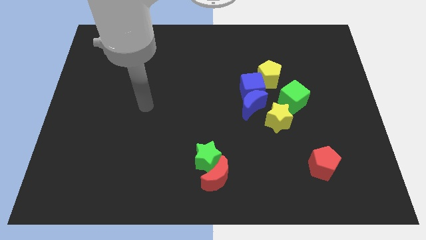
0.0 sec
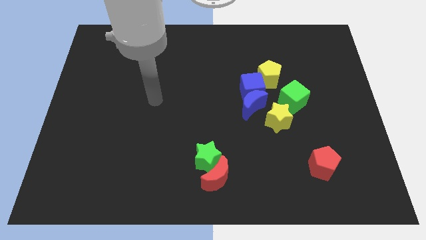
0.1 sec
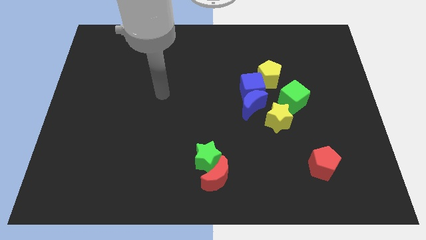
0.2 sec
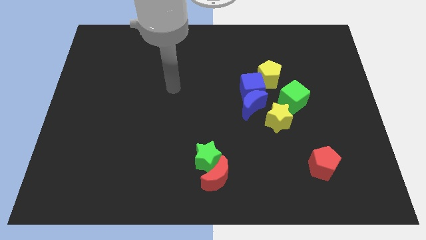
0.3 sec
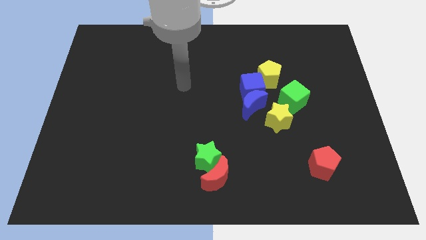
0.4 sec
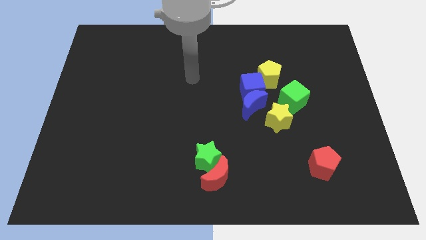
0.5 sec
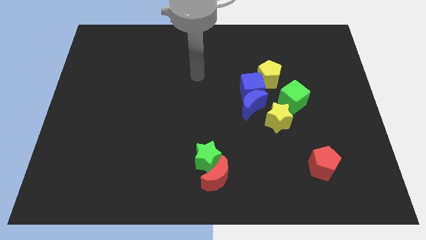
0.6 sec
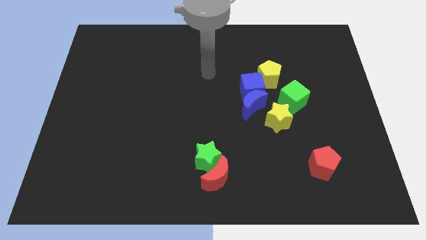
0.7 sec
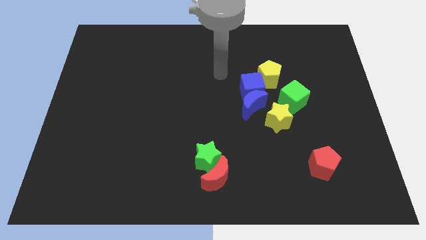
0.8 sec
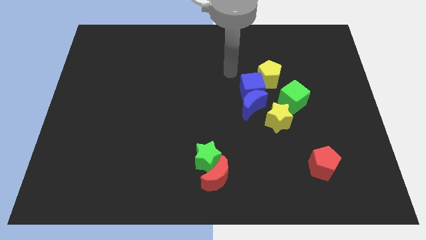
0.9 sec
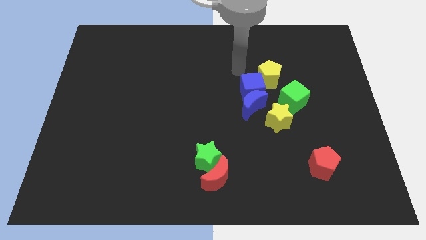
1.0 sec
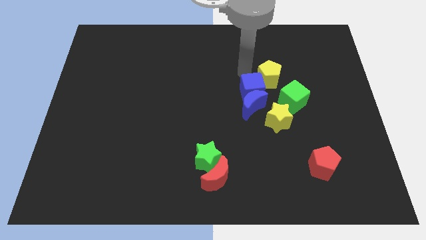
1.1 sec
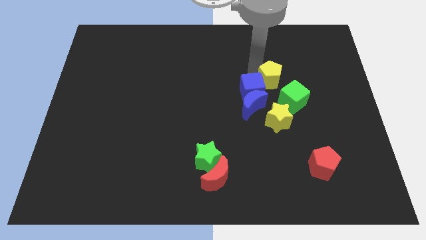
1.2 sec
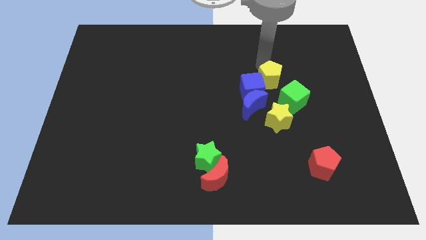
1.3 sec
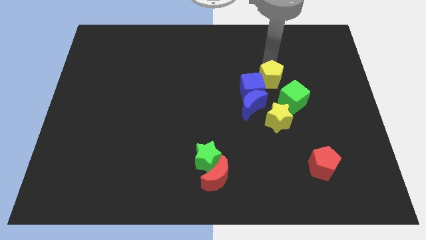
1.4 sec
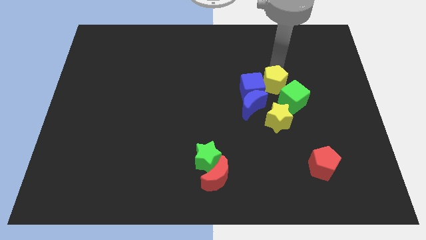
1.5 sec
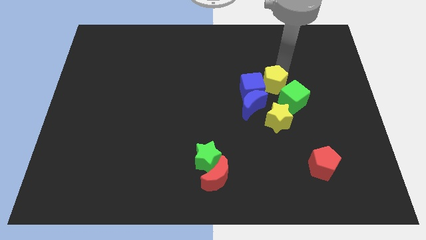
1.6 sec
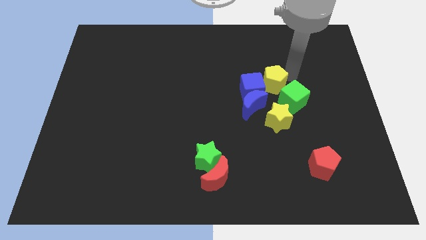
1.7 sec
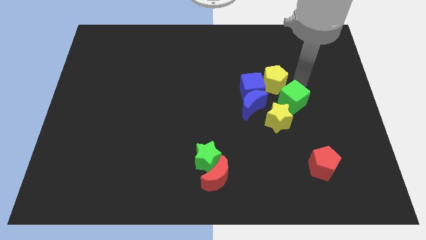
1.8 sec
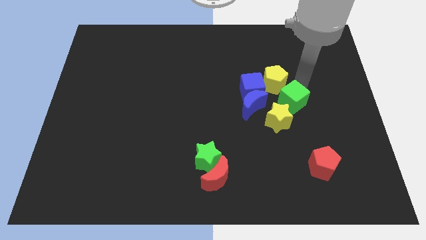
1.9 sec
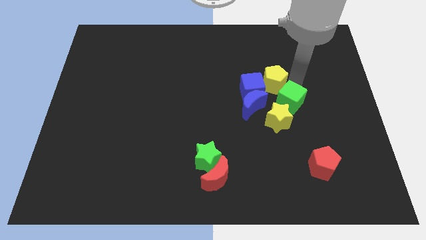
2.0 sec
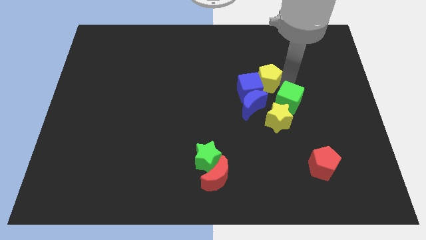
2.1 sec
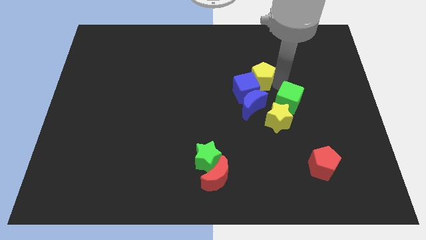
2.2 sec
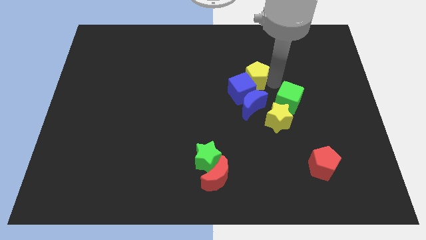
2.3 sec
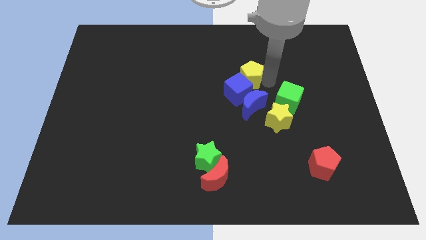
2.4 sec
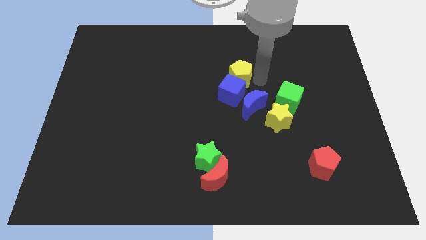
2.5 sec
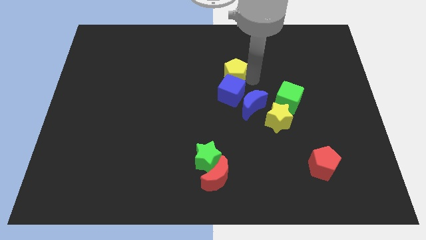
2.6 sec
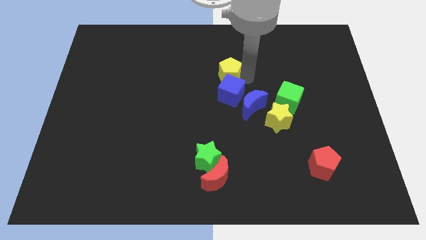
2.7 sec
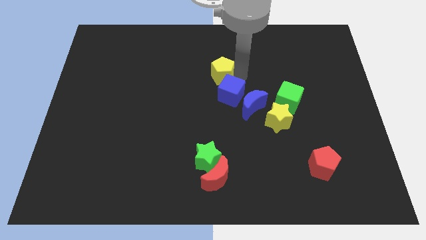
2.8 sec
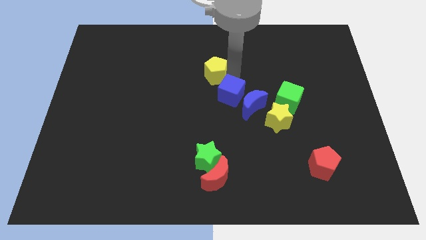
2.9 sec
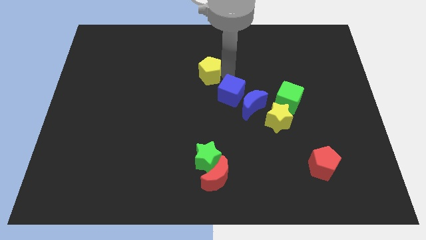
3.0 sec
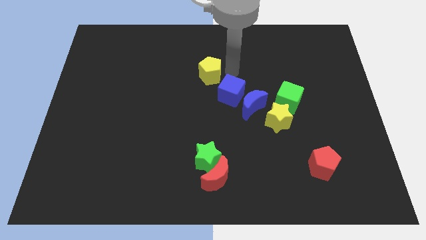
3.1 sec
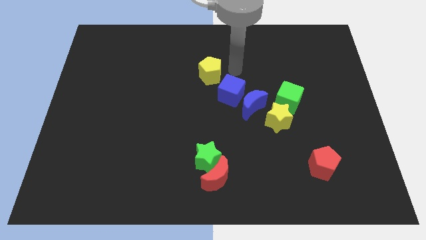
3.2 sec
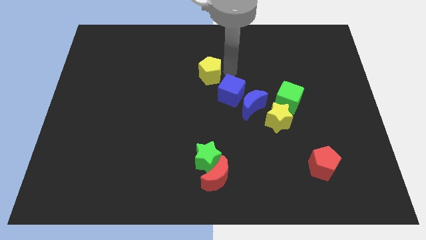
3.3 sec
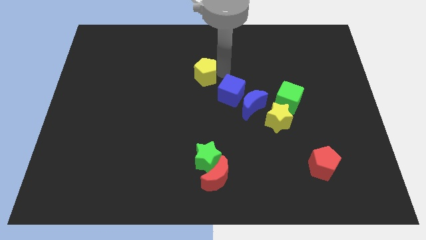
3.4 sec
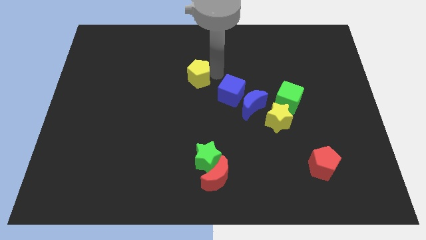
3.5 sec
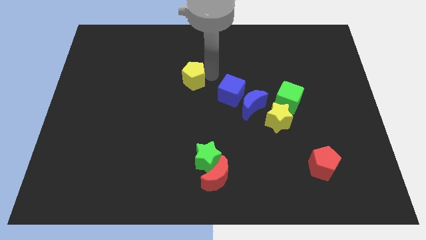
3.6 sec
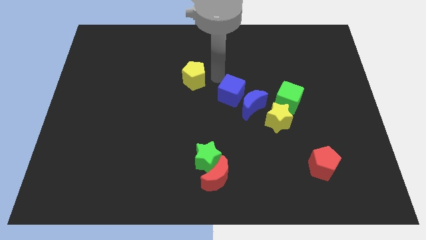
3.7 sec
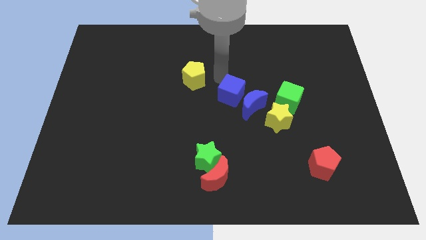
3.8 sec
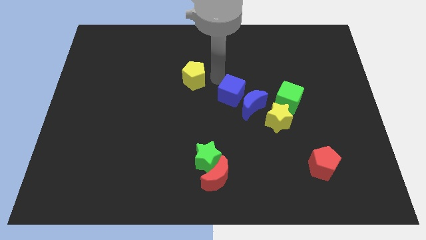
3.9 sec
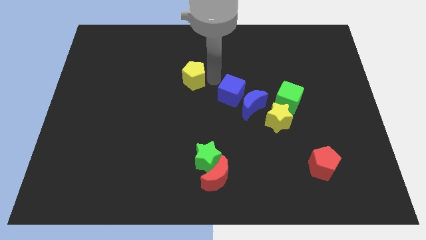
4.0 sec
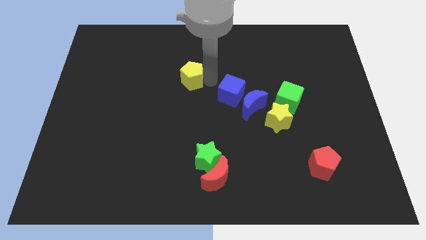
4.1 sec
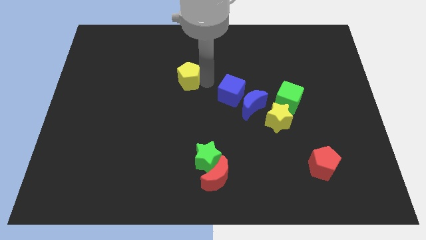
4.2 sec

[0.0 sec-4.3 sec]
push the yellow pentagon left

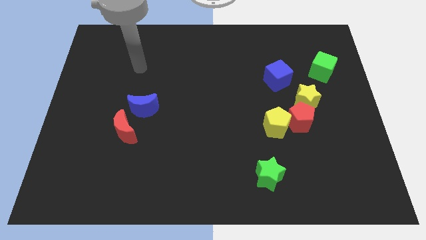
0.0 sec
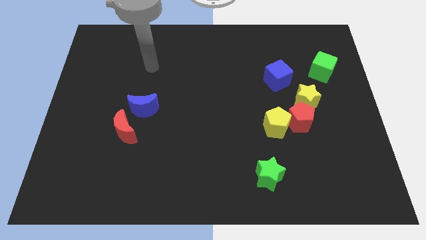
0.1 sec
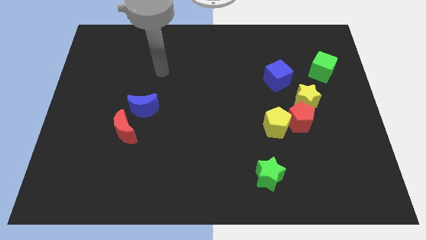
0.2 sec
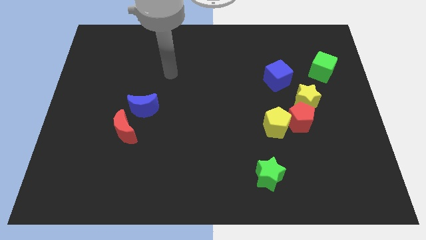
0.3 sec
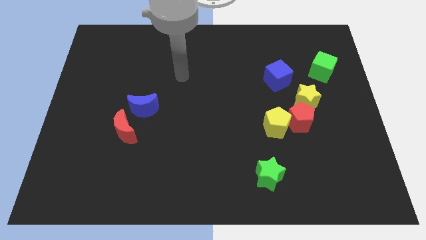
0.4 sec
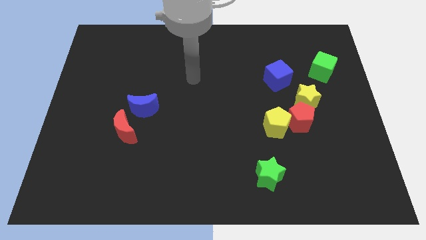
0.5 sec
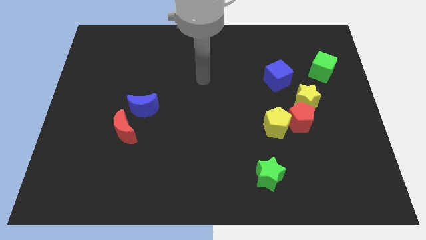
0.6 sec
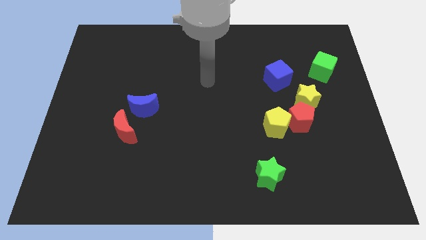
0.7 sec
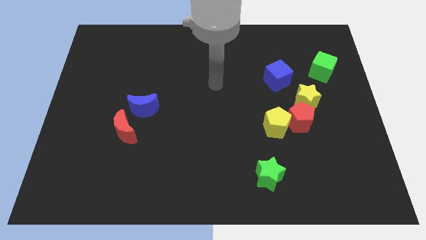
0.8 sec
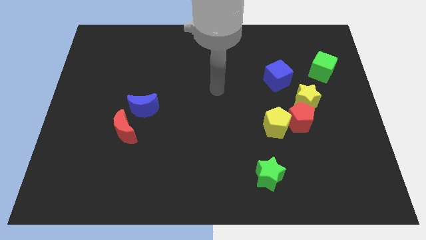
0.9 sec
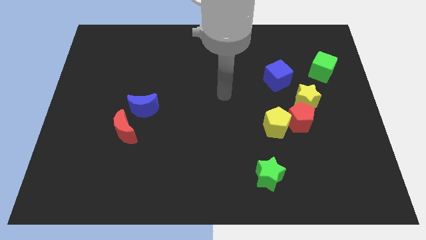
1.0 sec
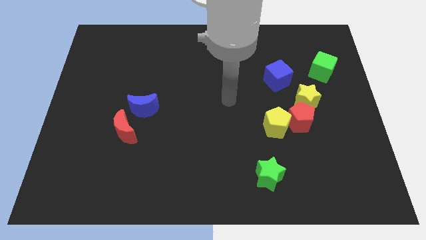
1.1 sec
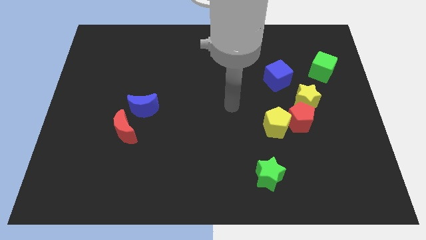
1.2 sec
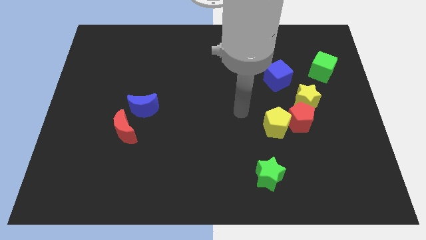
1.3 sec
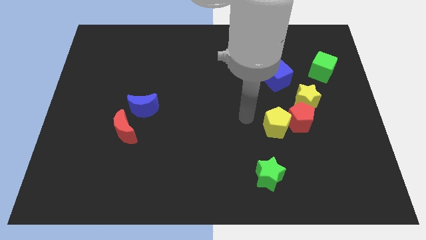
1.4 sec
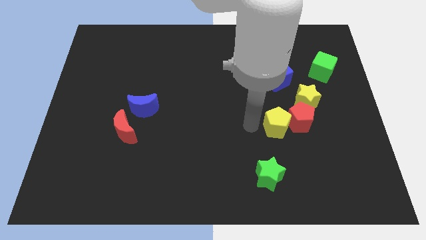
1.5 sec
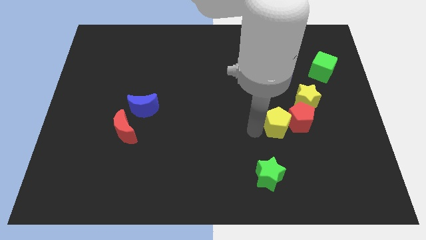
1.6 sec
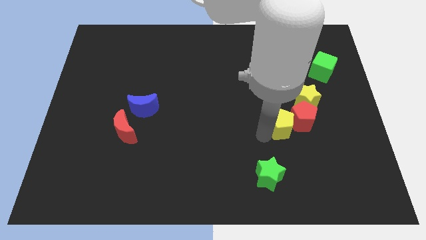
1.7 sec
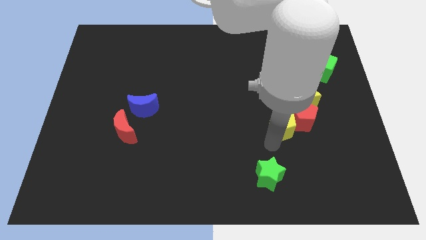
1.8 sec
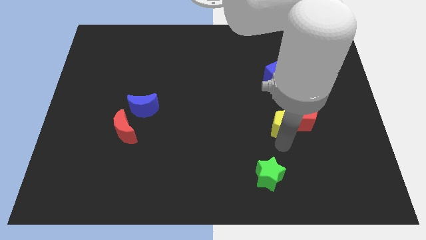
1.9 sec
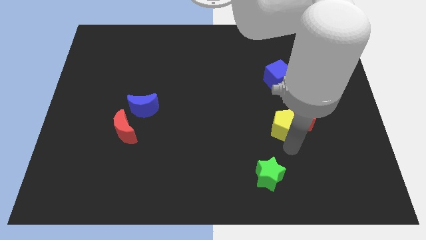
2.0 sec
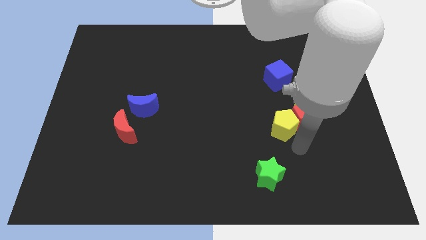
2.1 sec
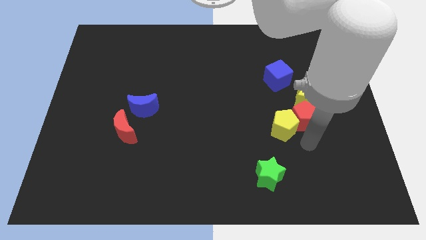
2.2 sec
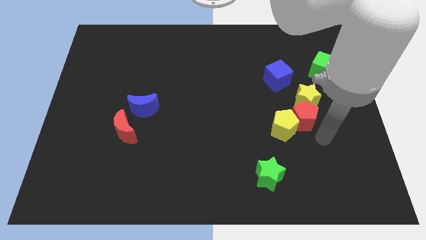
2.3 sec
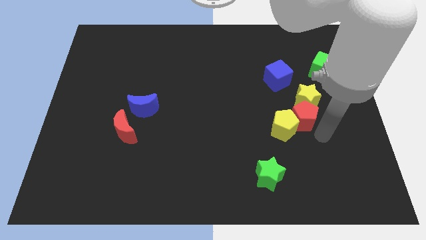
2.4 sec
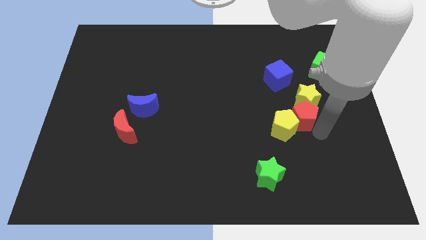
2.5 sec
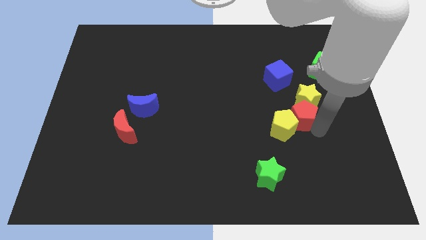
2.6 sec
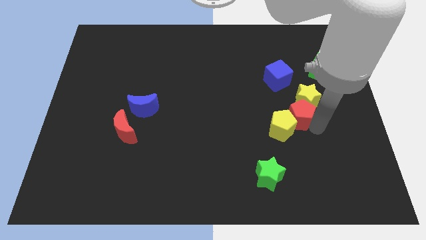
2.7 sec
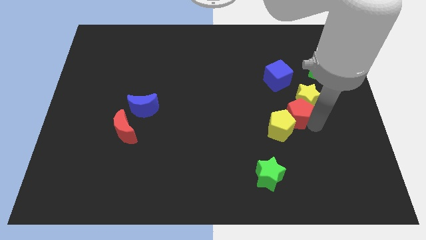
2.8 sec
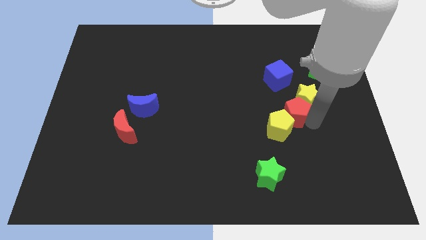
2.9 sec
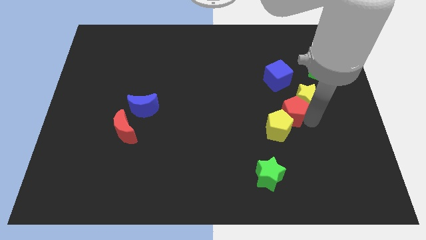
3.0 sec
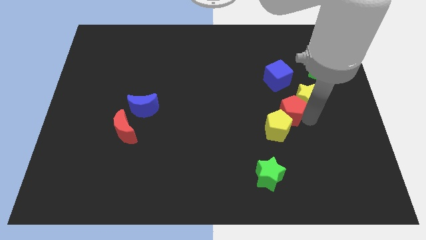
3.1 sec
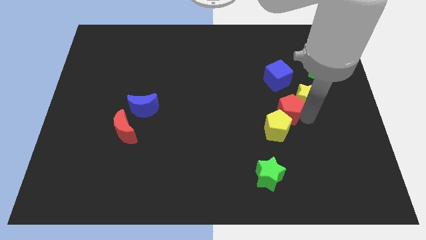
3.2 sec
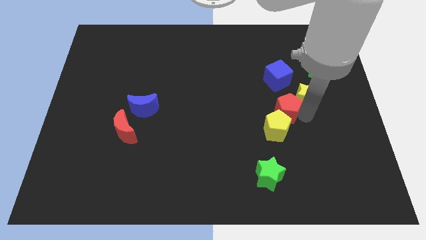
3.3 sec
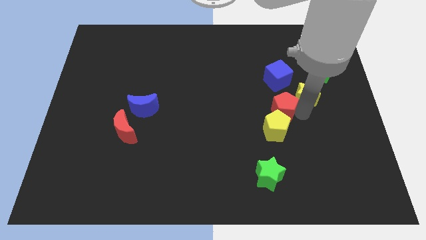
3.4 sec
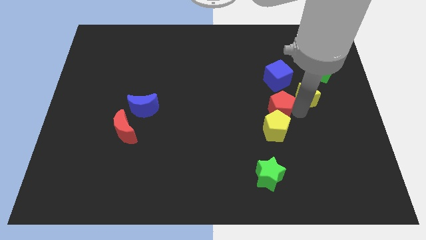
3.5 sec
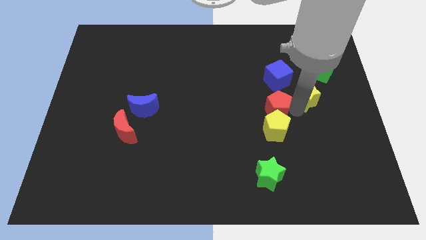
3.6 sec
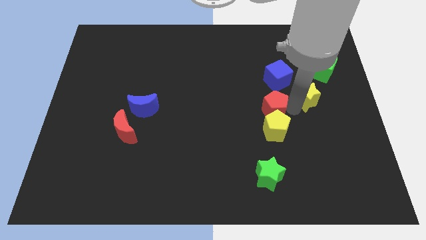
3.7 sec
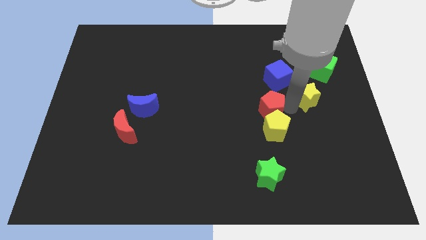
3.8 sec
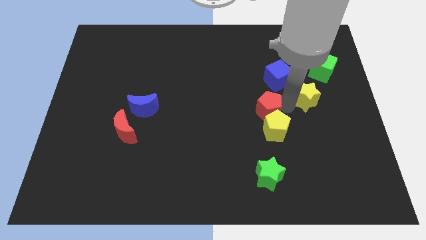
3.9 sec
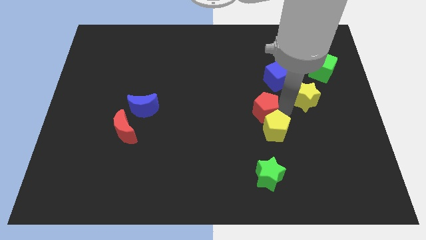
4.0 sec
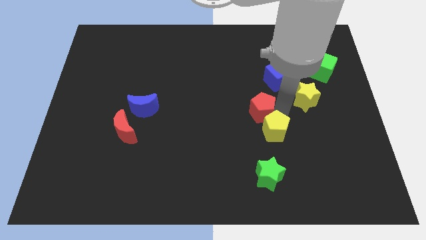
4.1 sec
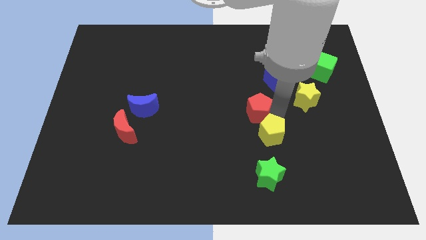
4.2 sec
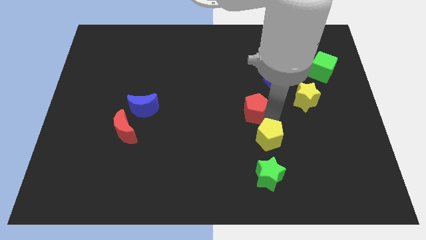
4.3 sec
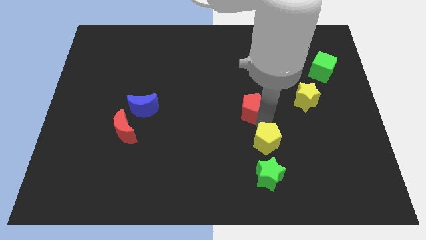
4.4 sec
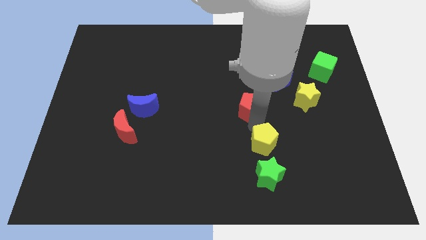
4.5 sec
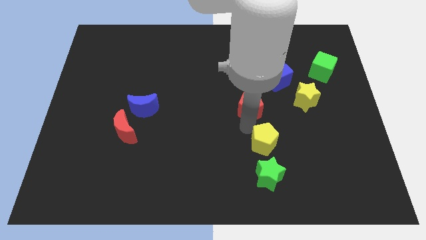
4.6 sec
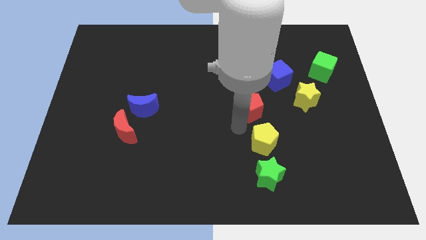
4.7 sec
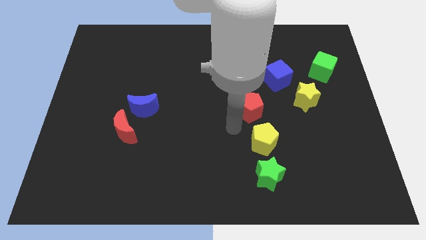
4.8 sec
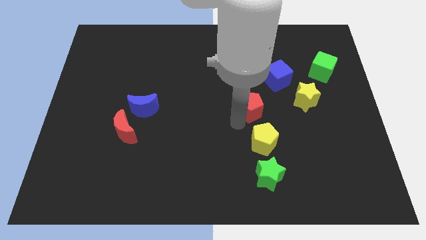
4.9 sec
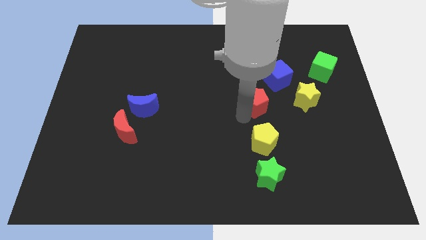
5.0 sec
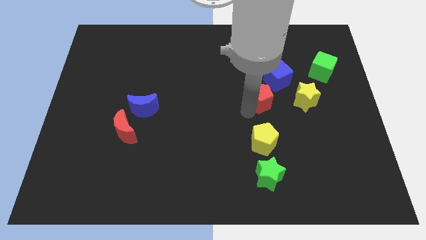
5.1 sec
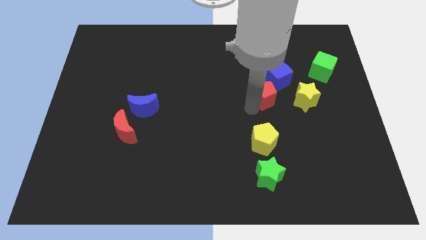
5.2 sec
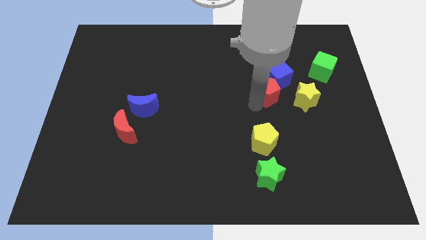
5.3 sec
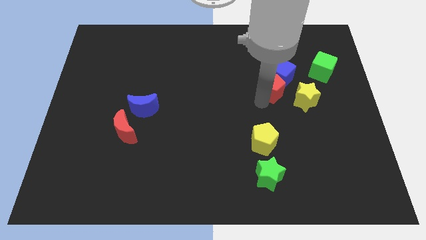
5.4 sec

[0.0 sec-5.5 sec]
slide the red pentagon somewhat upwards
